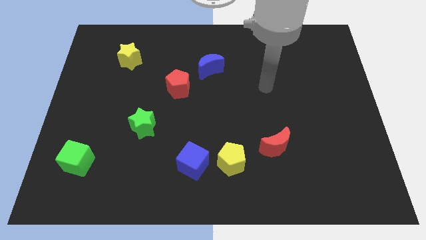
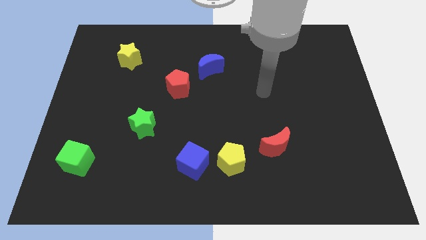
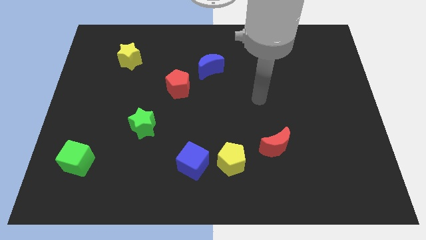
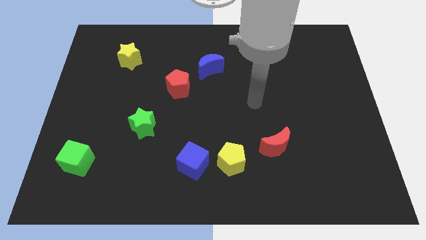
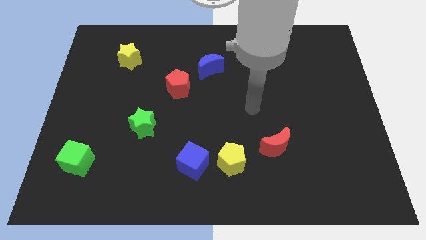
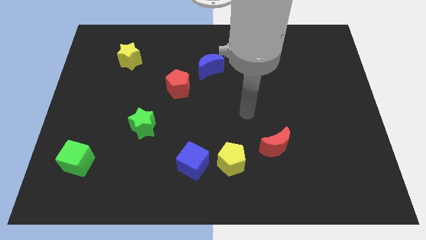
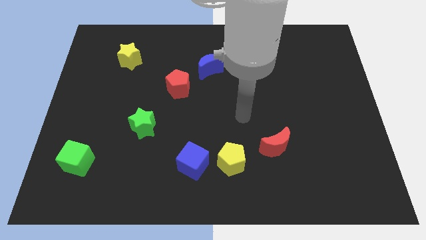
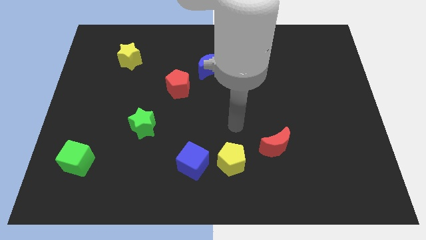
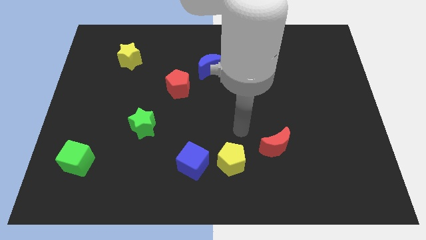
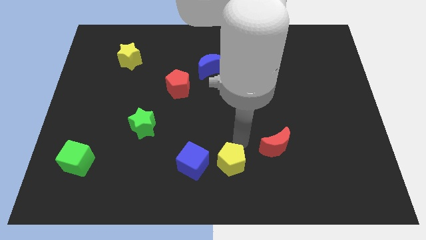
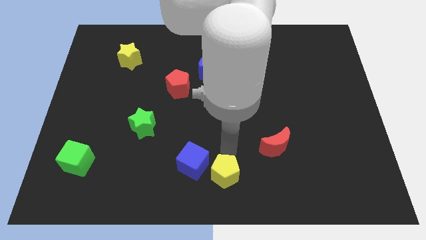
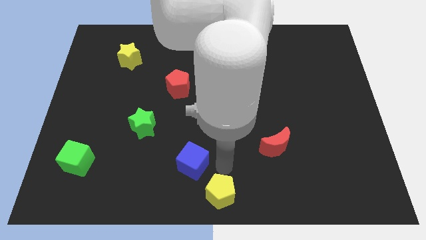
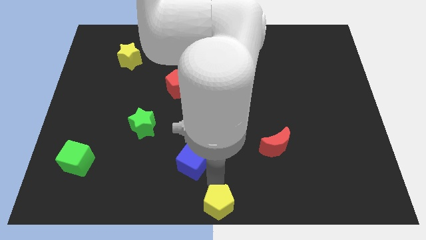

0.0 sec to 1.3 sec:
separate the blue cube from the yellow pentagon

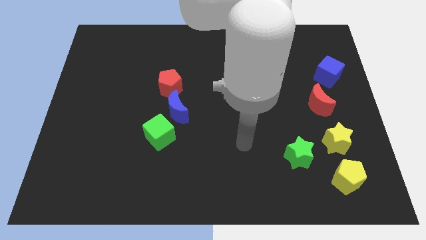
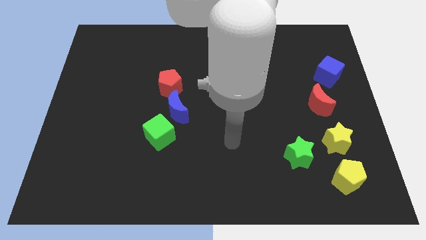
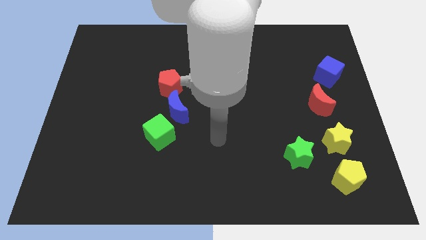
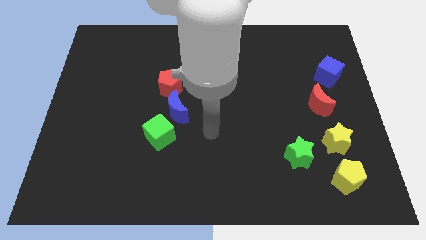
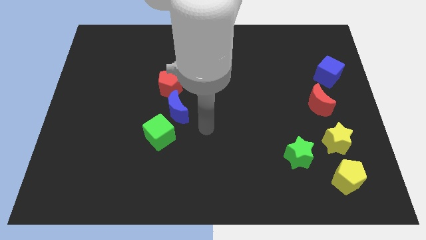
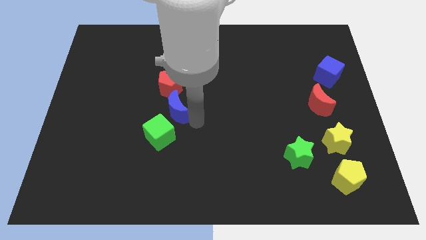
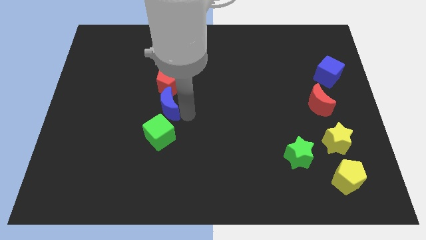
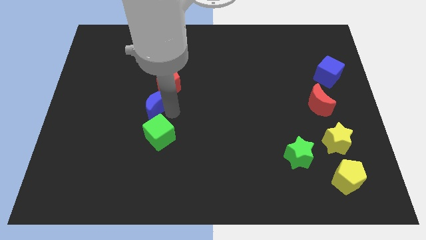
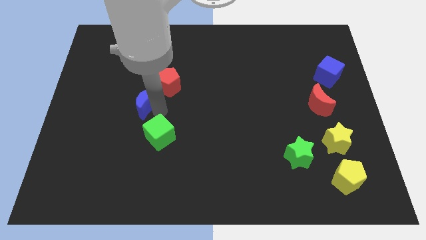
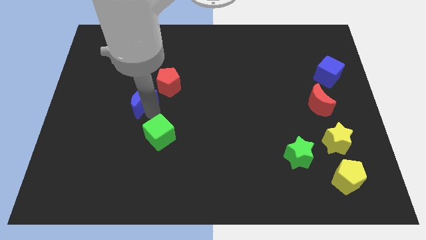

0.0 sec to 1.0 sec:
pull the green cube apart from the blue moon

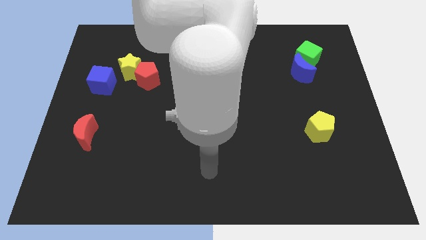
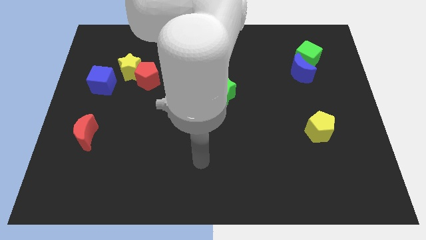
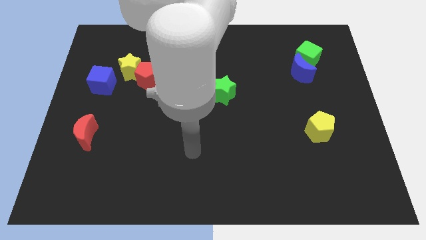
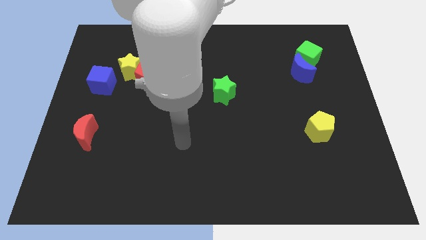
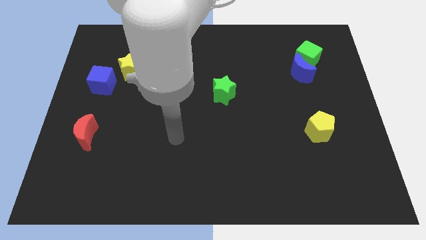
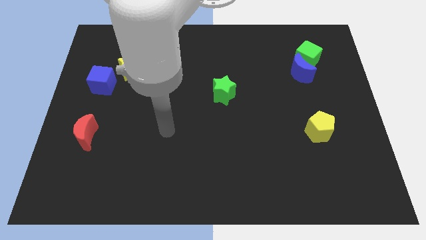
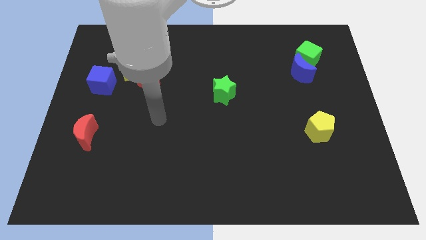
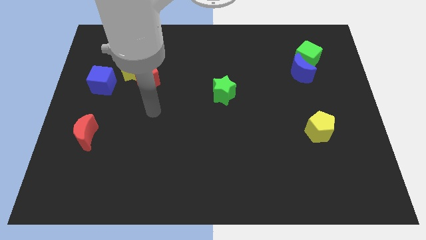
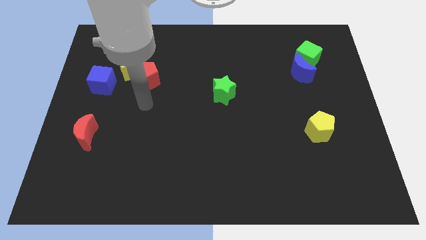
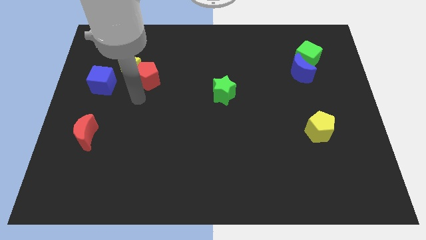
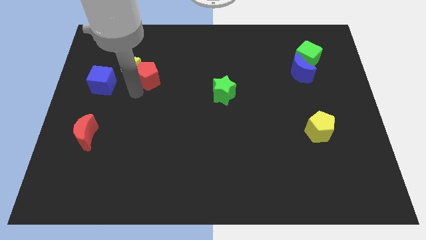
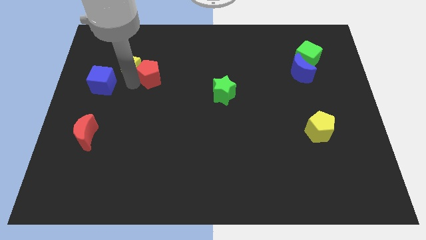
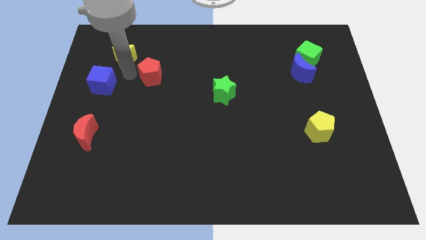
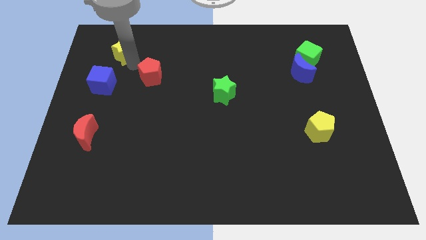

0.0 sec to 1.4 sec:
pull the red pentagon apart from the yellow star

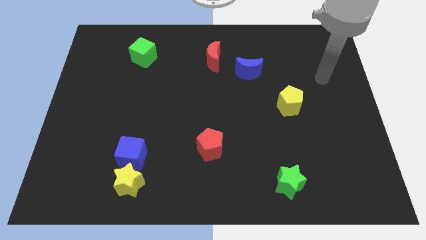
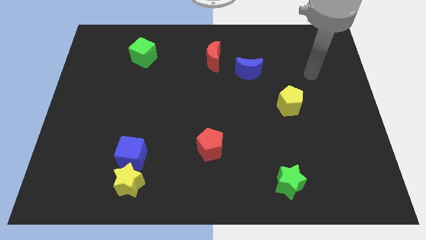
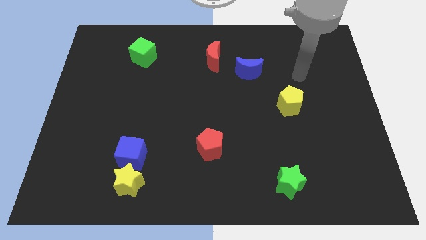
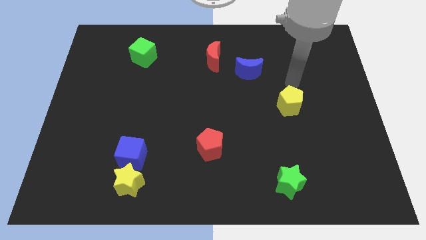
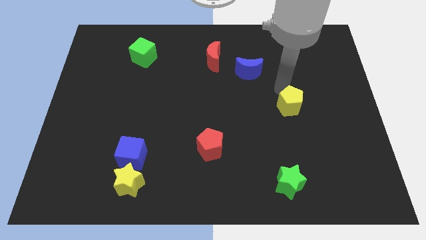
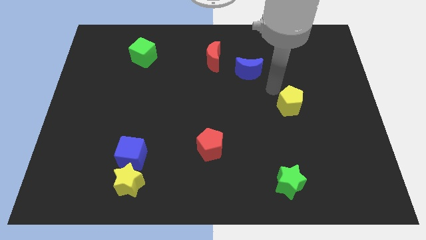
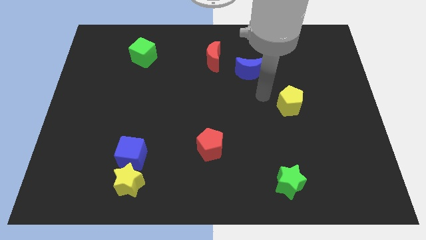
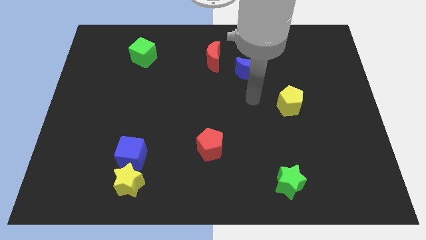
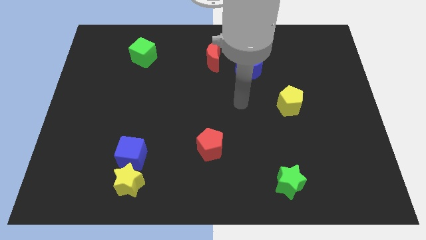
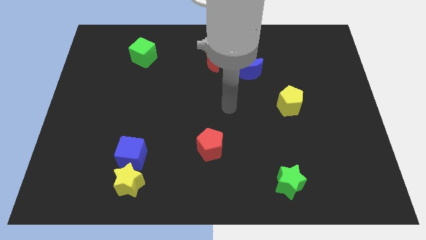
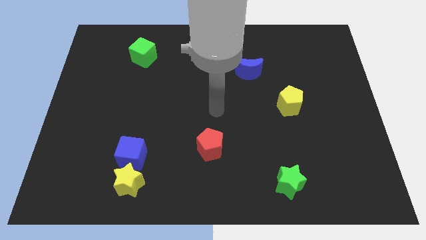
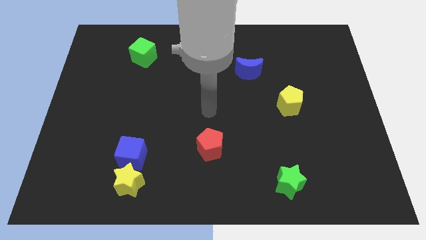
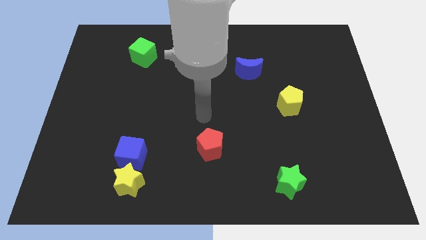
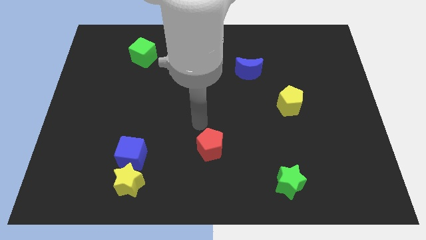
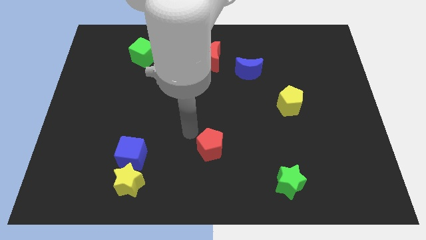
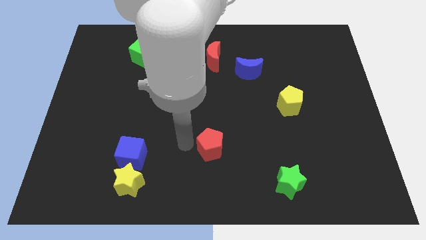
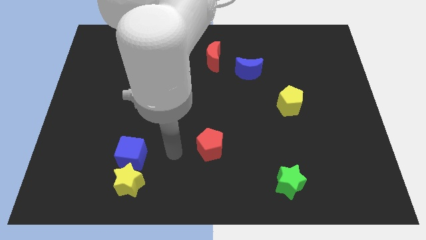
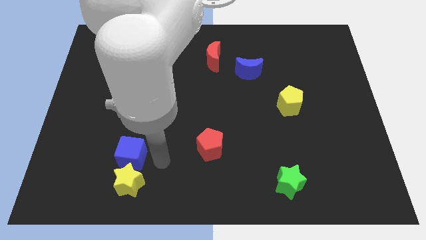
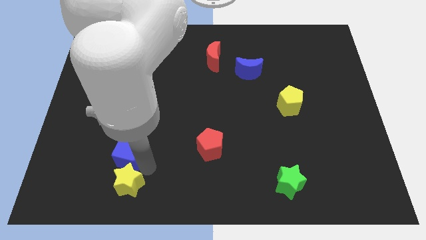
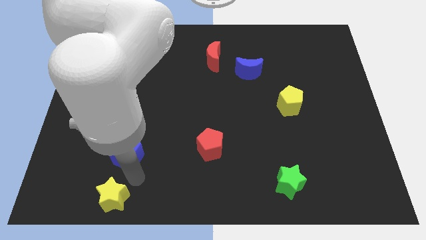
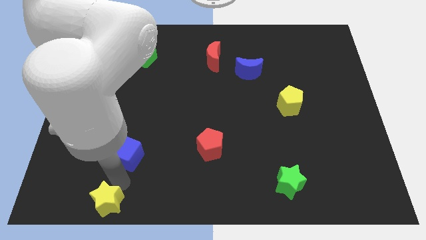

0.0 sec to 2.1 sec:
pull the blue cube apart from the yellow star

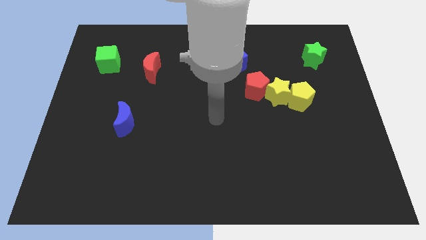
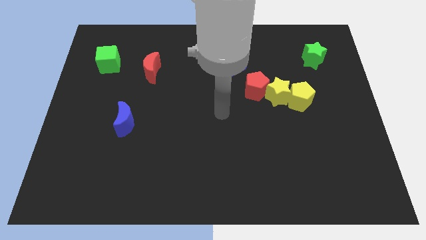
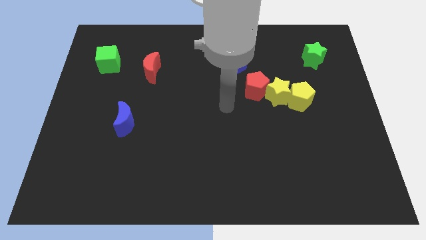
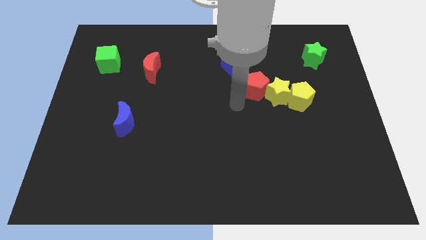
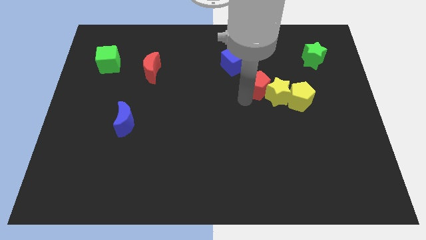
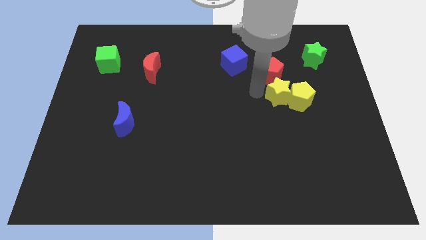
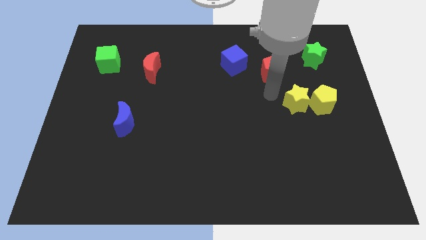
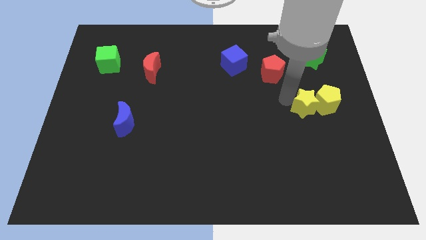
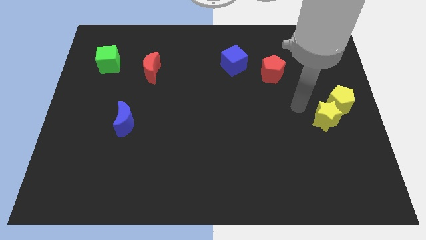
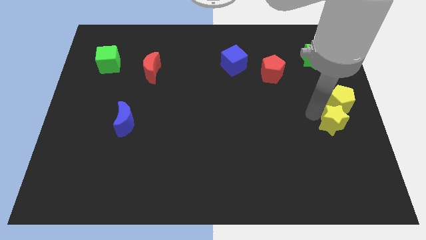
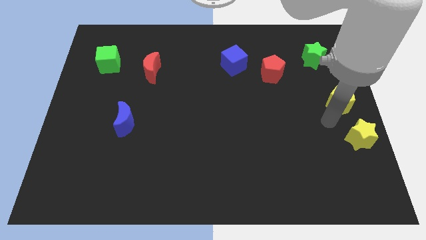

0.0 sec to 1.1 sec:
pull the yellow pentagon apart from the yellow star

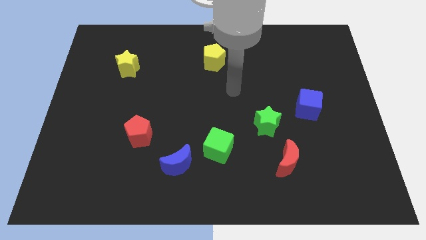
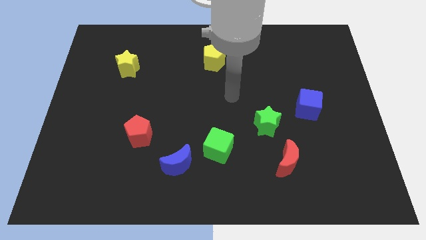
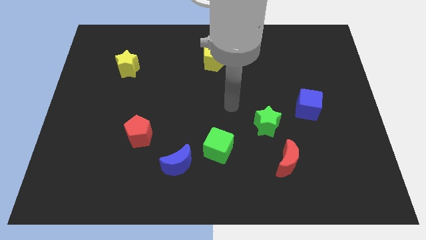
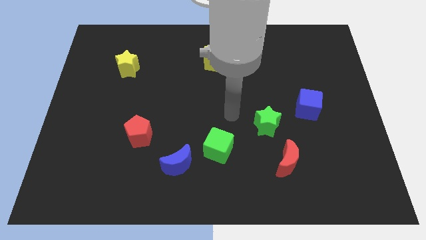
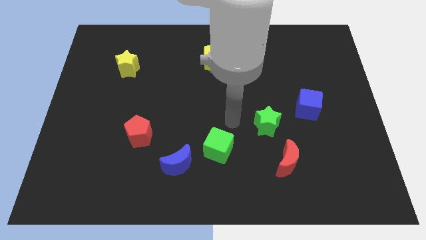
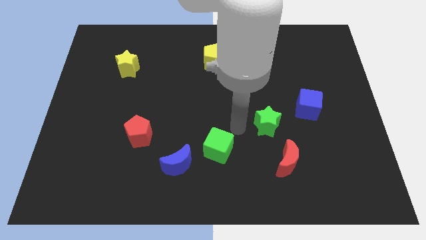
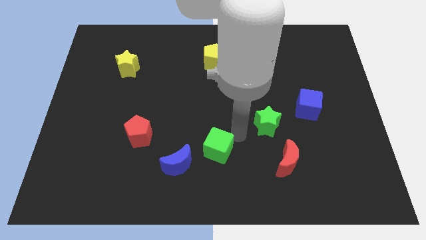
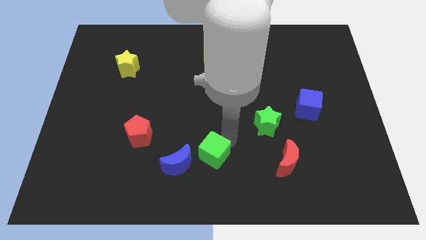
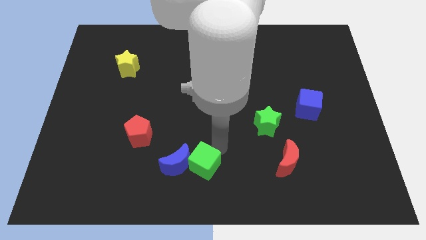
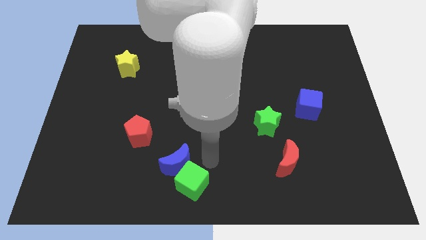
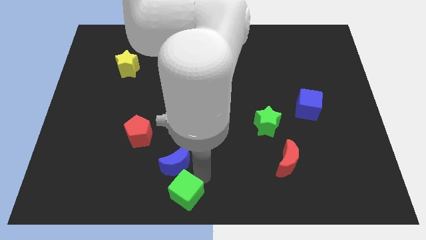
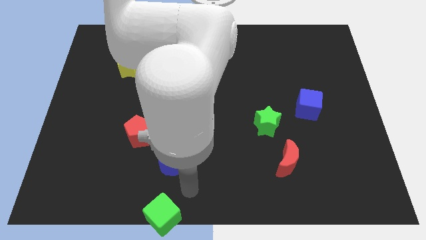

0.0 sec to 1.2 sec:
pull the blue moon apart from the green cube

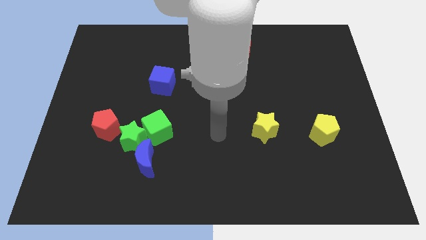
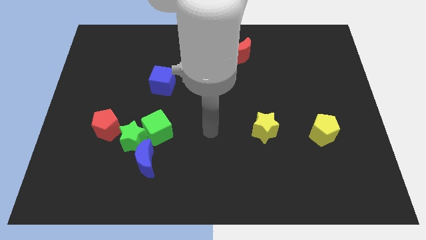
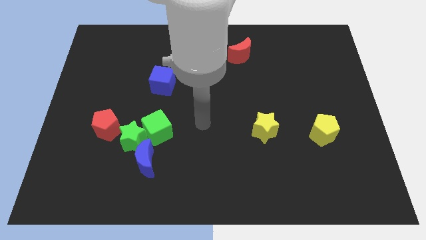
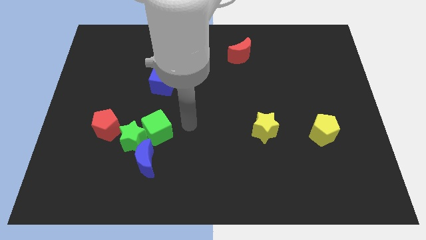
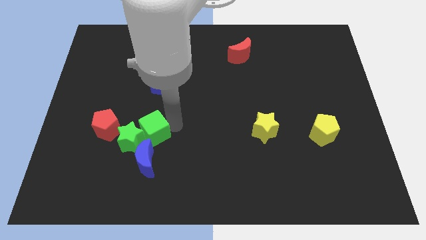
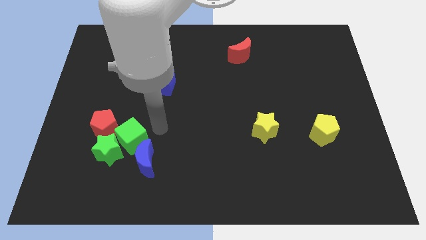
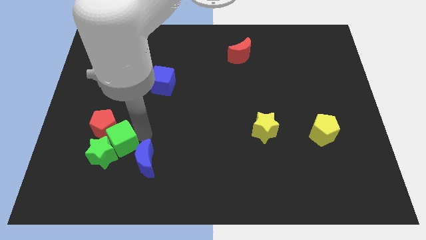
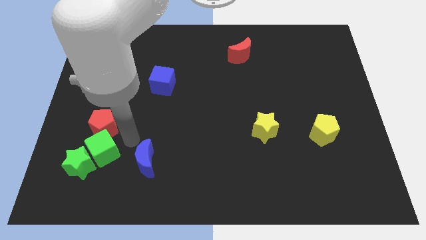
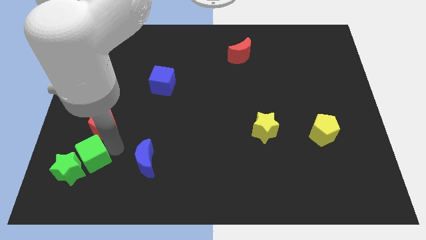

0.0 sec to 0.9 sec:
pull the green star apart from the green cube, blue moon, and red pentagon

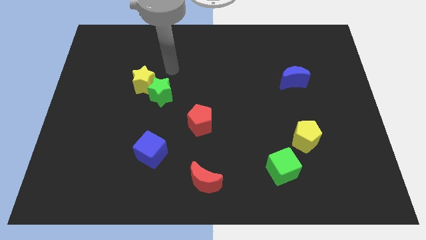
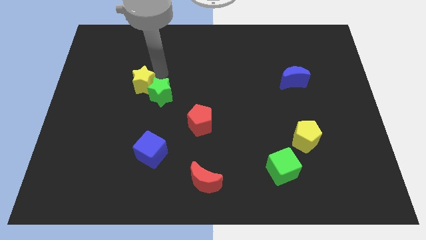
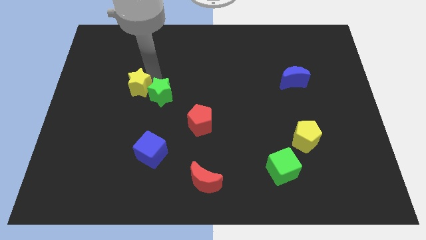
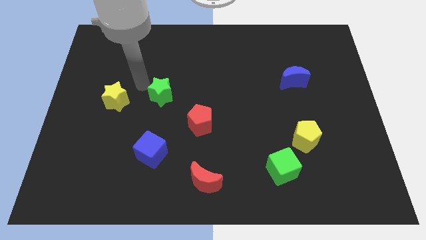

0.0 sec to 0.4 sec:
move the green star away from the yellow star
